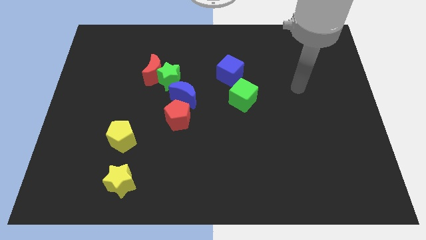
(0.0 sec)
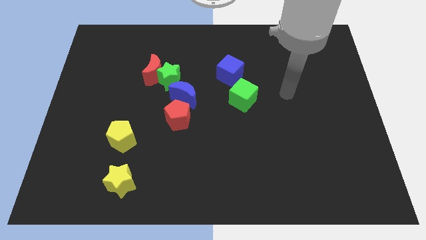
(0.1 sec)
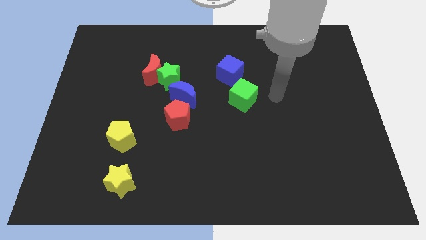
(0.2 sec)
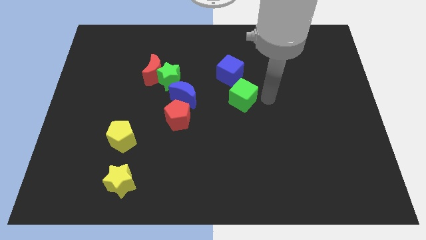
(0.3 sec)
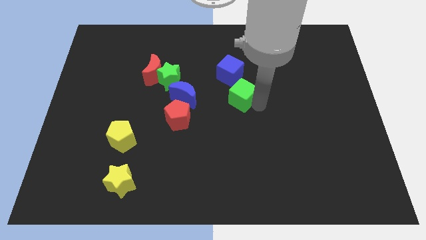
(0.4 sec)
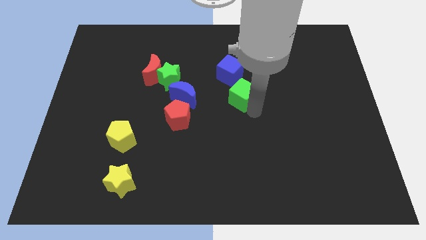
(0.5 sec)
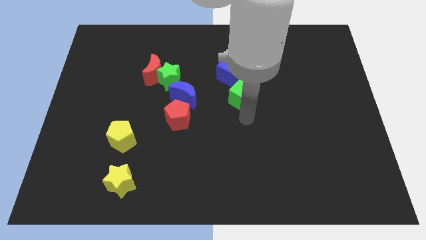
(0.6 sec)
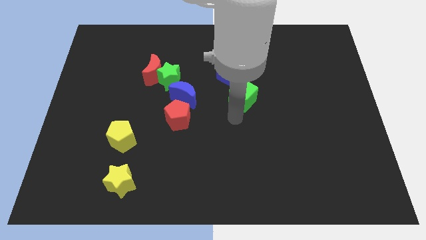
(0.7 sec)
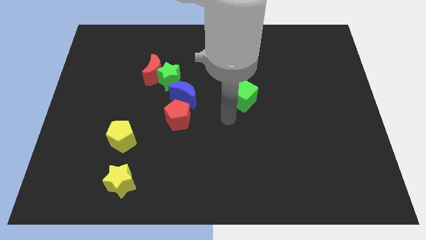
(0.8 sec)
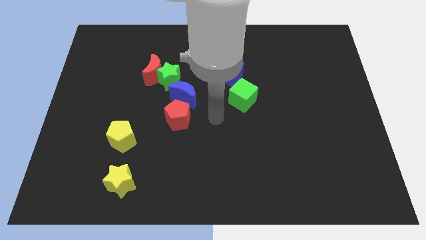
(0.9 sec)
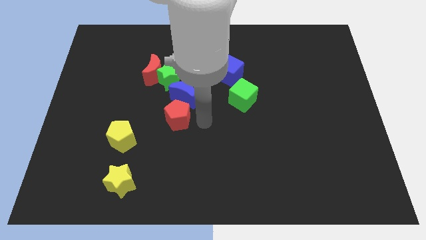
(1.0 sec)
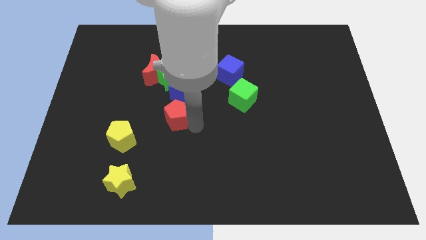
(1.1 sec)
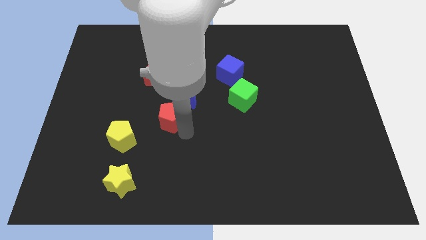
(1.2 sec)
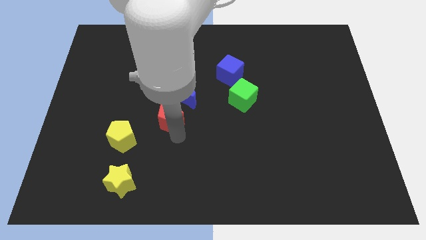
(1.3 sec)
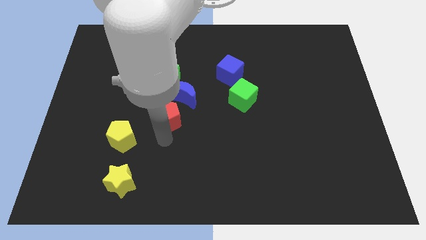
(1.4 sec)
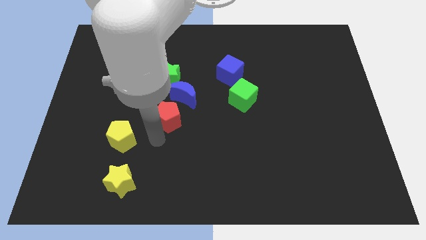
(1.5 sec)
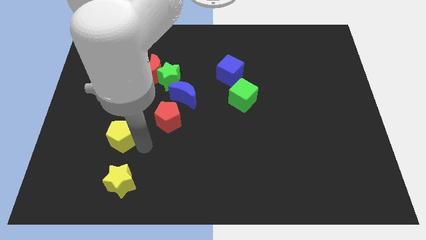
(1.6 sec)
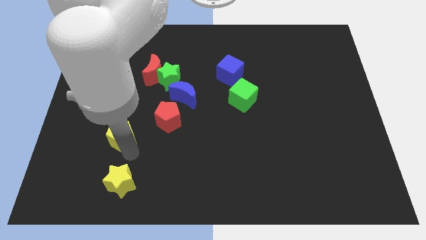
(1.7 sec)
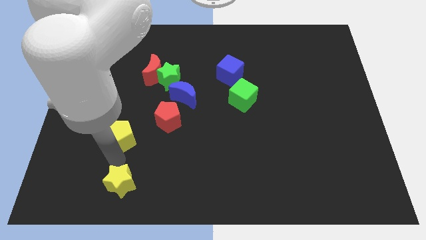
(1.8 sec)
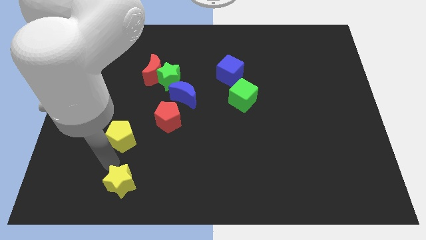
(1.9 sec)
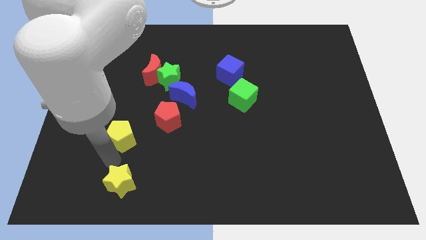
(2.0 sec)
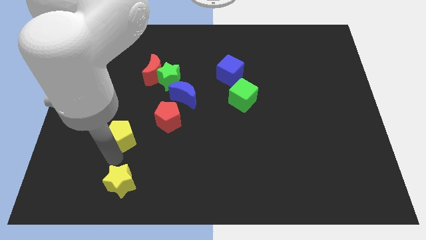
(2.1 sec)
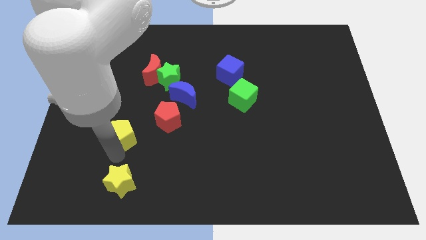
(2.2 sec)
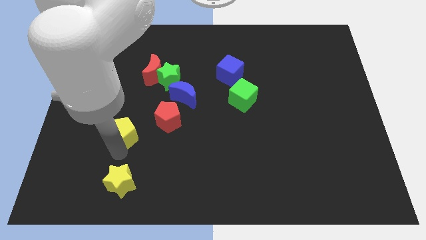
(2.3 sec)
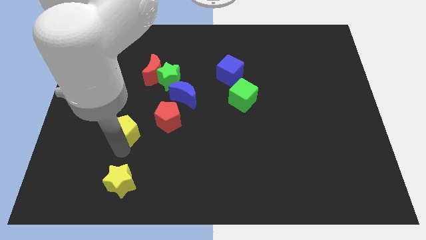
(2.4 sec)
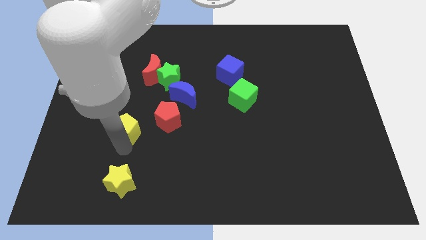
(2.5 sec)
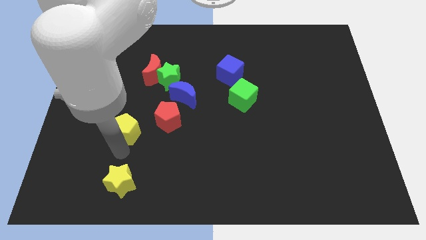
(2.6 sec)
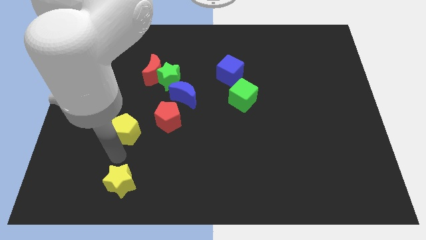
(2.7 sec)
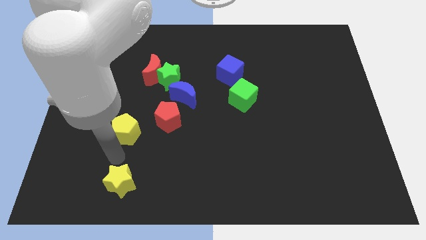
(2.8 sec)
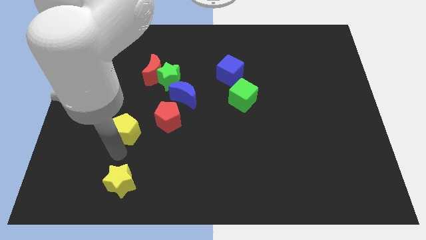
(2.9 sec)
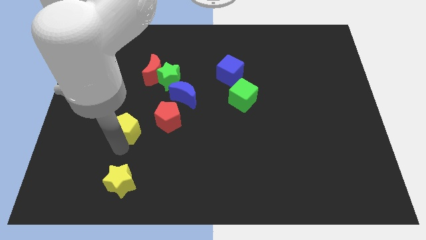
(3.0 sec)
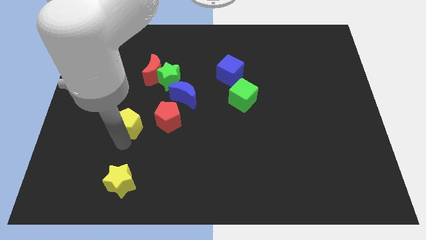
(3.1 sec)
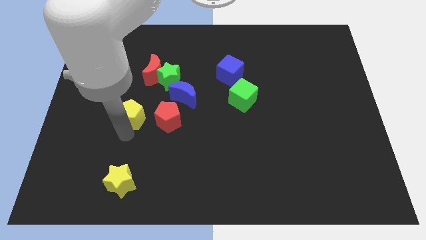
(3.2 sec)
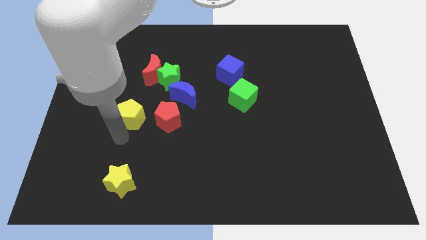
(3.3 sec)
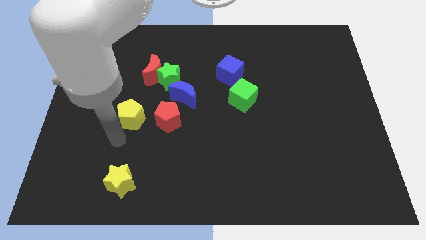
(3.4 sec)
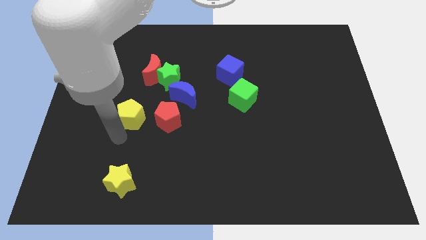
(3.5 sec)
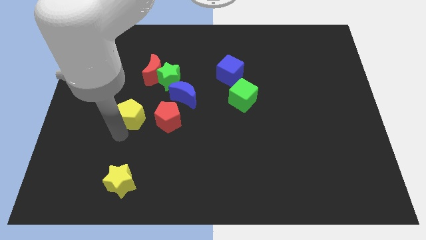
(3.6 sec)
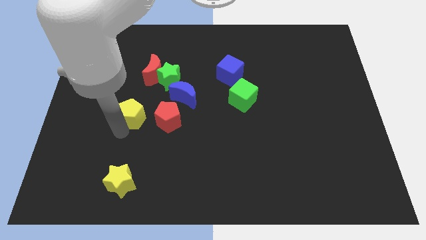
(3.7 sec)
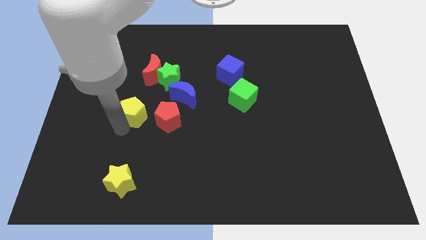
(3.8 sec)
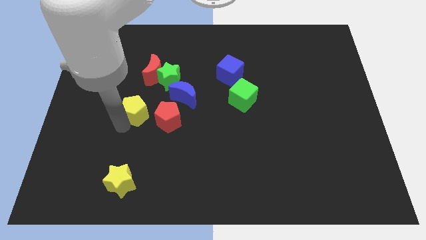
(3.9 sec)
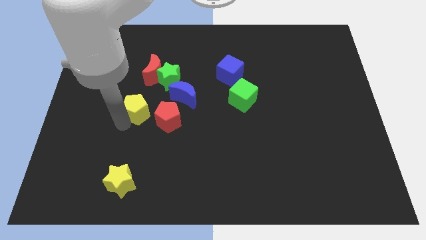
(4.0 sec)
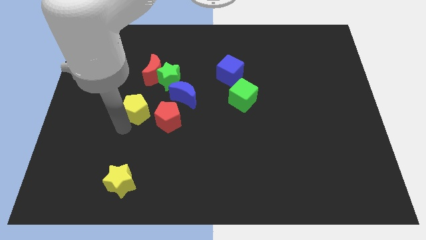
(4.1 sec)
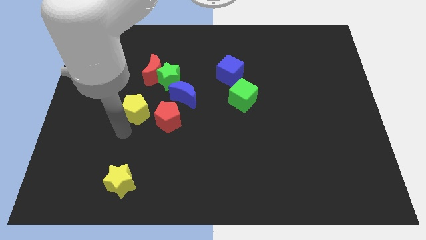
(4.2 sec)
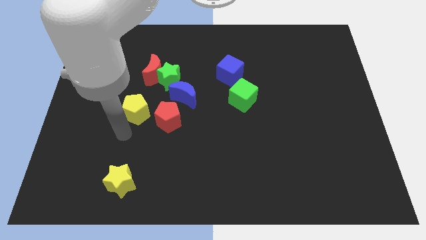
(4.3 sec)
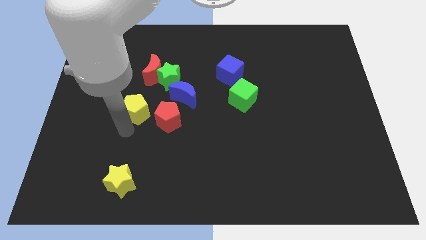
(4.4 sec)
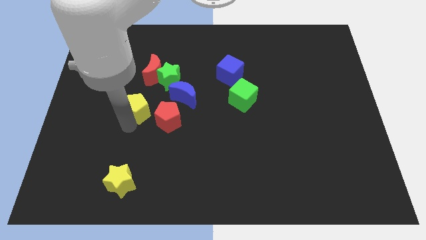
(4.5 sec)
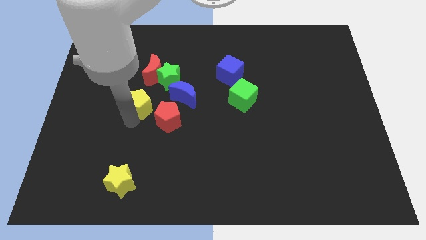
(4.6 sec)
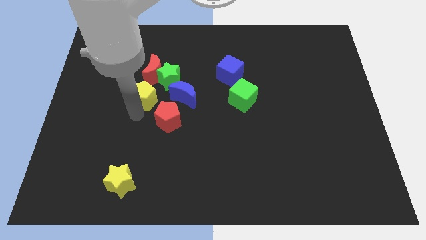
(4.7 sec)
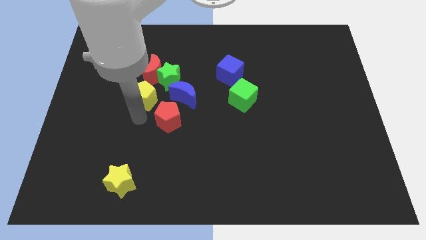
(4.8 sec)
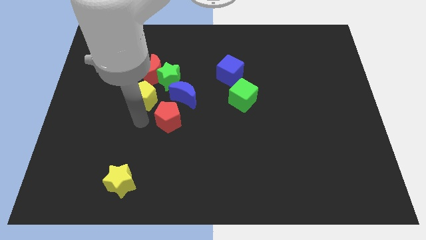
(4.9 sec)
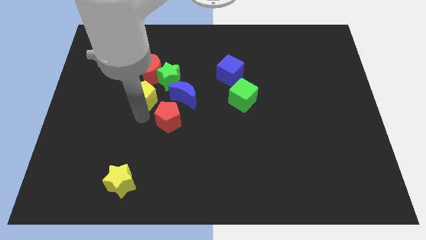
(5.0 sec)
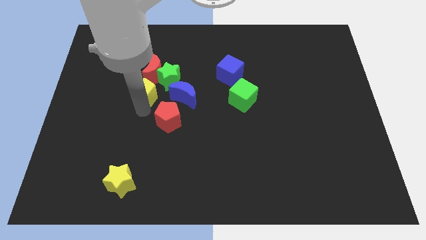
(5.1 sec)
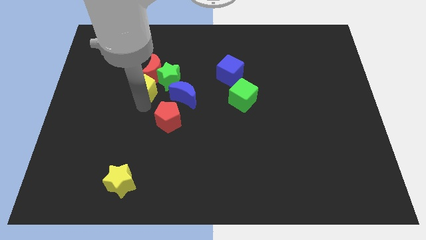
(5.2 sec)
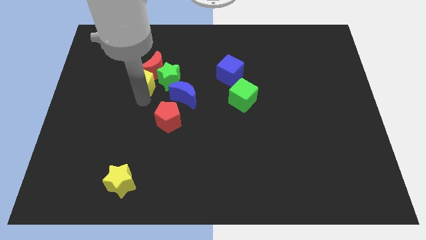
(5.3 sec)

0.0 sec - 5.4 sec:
put the yellow pentagon next to the red moon
